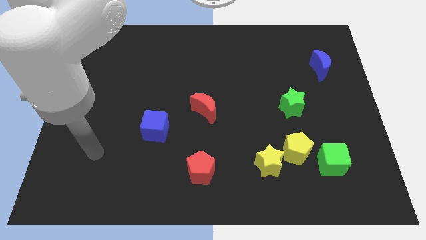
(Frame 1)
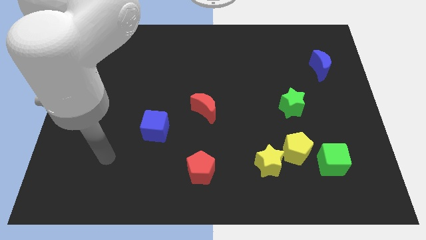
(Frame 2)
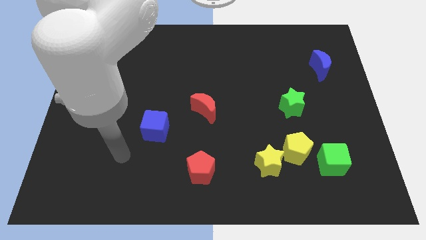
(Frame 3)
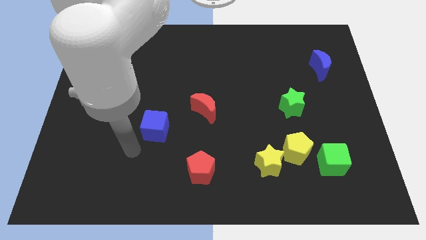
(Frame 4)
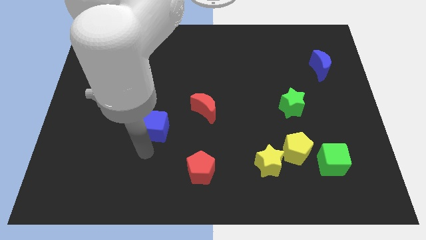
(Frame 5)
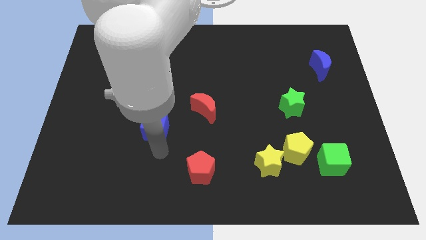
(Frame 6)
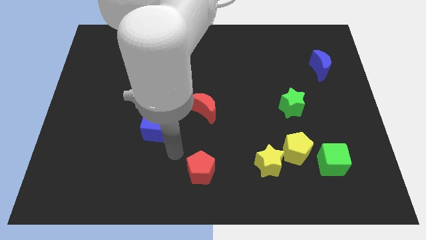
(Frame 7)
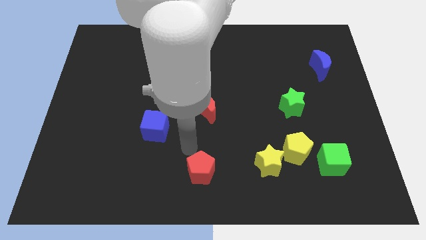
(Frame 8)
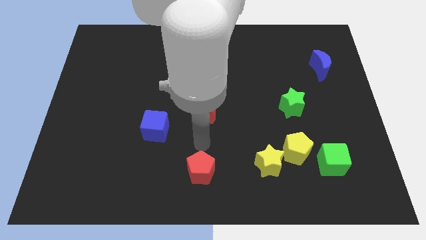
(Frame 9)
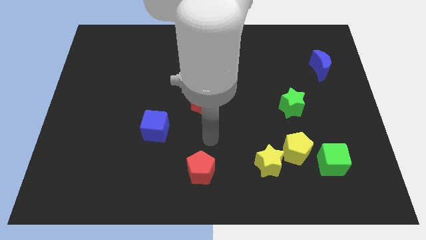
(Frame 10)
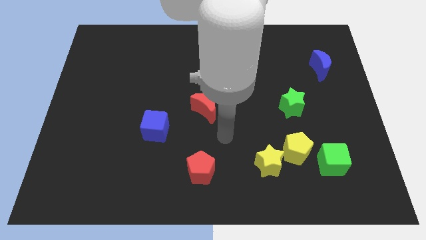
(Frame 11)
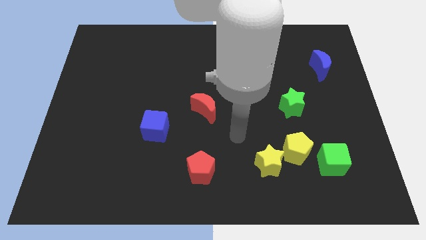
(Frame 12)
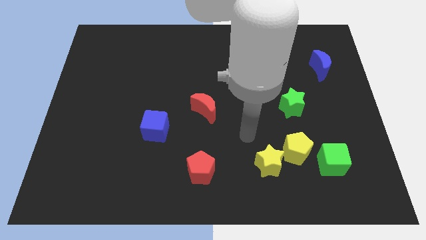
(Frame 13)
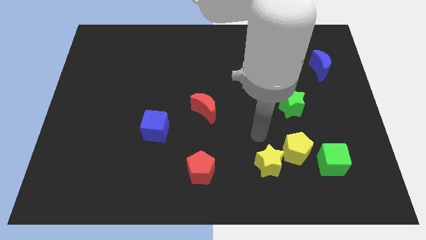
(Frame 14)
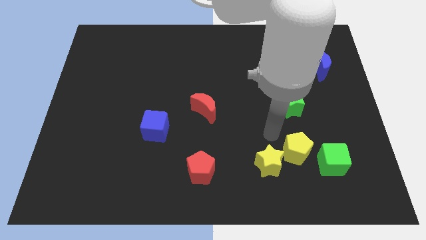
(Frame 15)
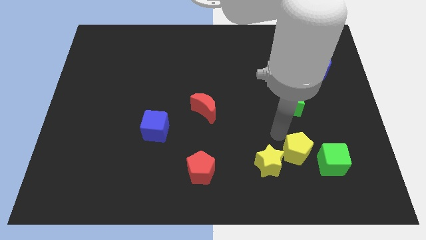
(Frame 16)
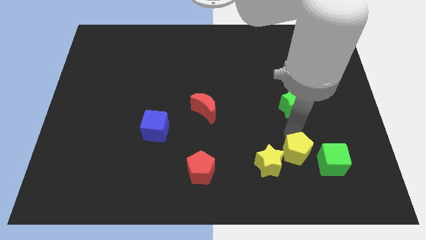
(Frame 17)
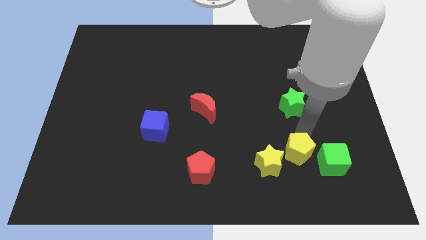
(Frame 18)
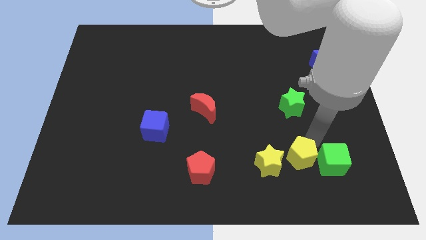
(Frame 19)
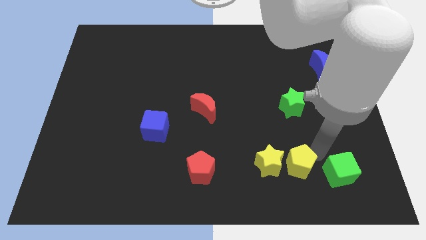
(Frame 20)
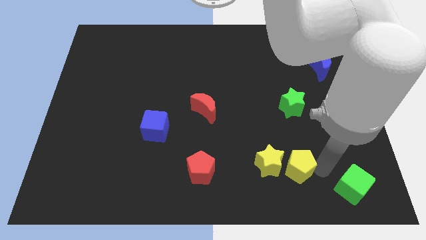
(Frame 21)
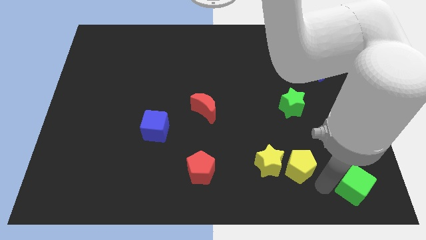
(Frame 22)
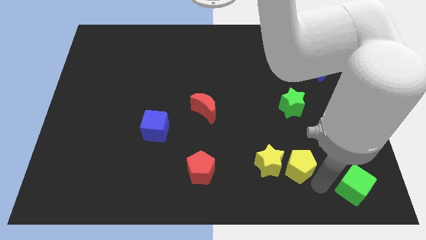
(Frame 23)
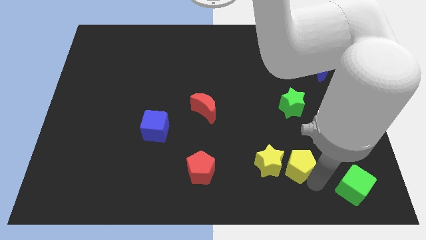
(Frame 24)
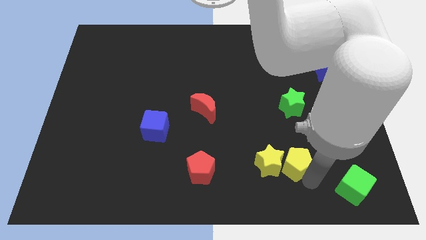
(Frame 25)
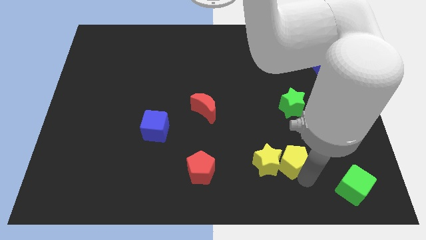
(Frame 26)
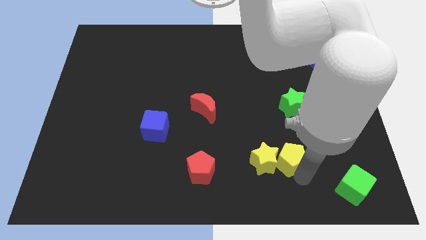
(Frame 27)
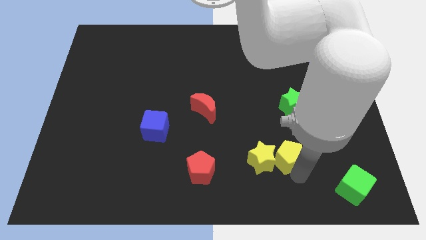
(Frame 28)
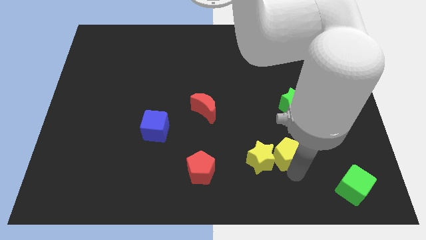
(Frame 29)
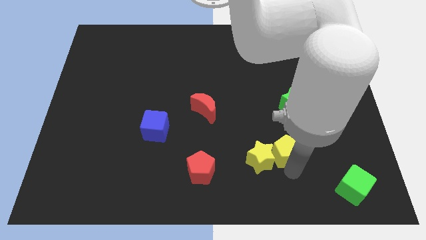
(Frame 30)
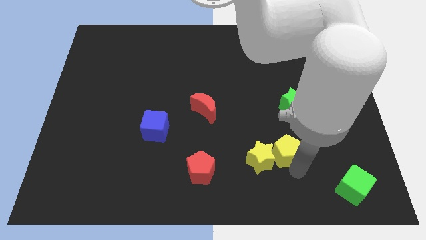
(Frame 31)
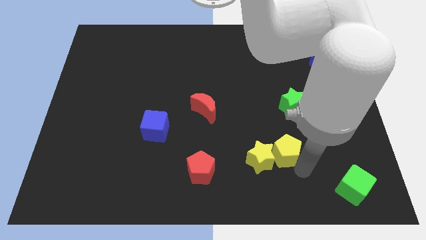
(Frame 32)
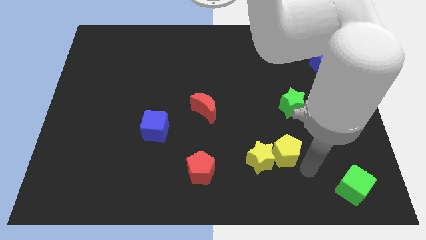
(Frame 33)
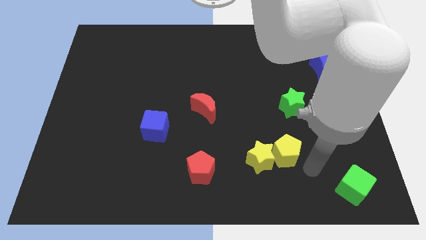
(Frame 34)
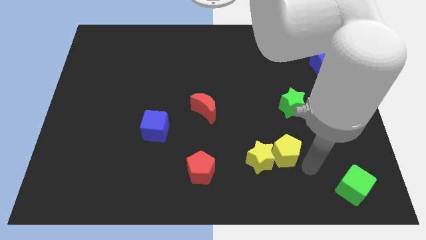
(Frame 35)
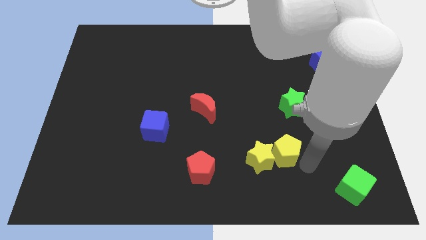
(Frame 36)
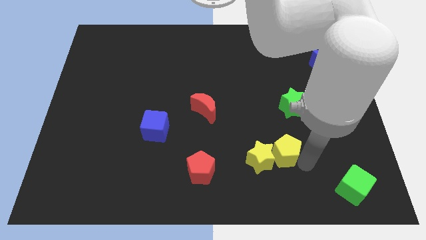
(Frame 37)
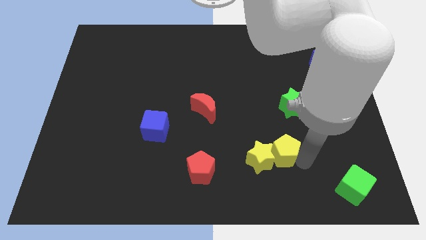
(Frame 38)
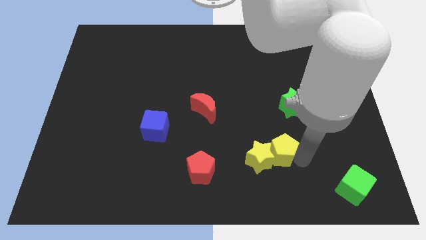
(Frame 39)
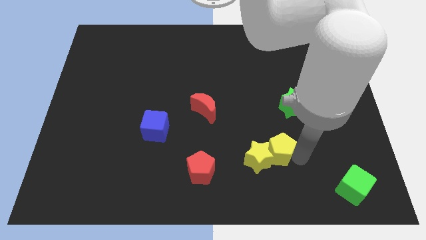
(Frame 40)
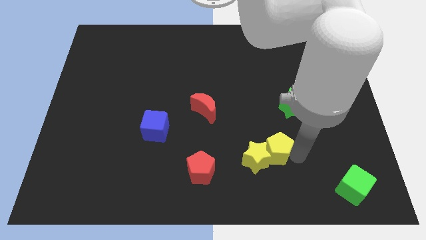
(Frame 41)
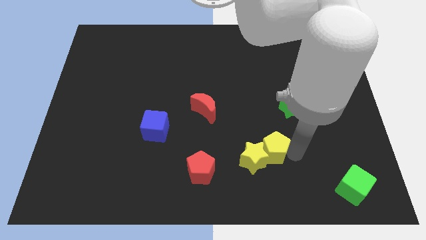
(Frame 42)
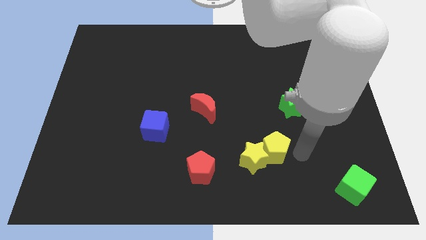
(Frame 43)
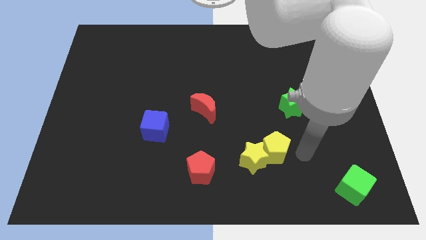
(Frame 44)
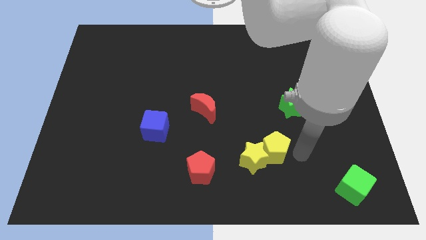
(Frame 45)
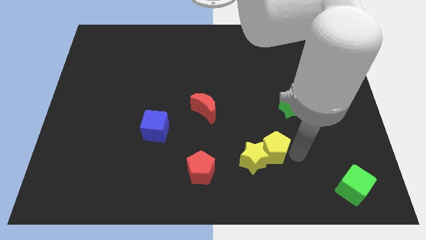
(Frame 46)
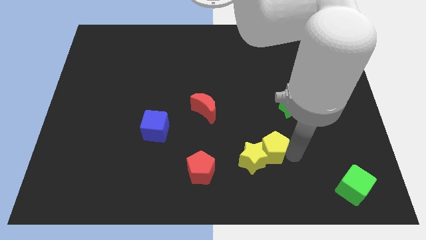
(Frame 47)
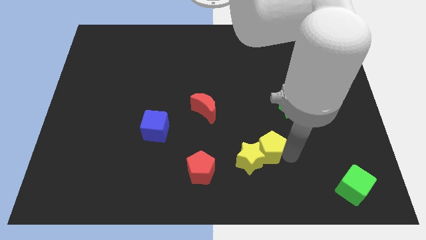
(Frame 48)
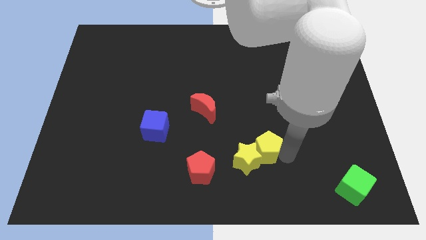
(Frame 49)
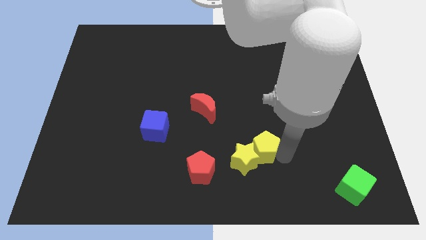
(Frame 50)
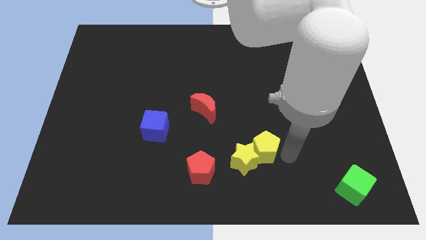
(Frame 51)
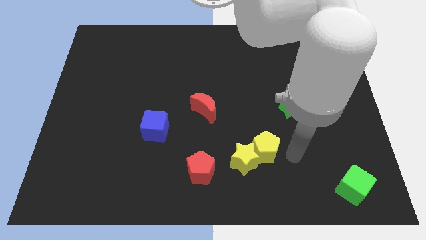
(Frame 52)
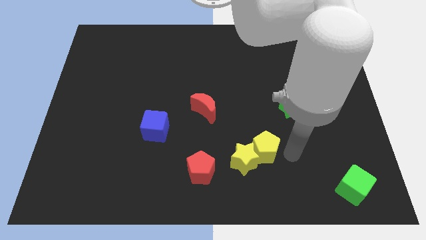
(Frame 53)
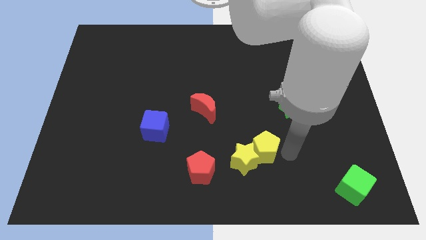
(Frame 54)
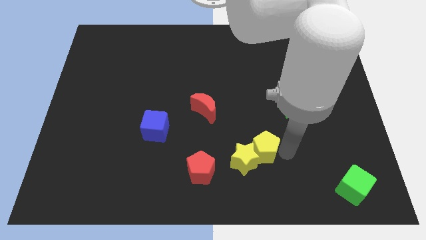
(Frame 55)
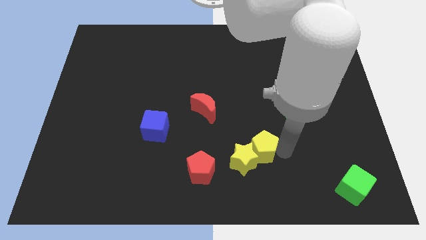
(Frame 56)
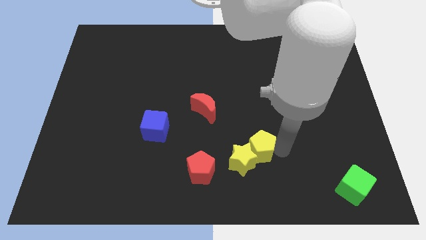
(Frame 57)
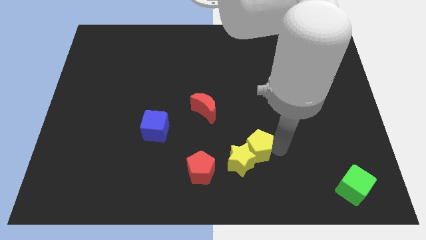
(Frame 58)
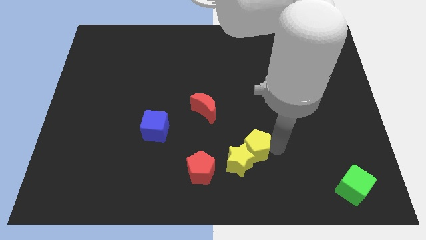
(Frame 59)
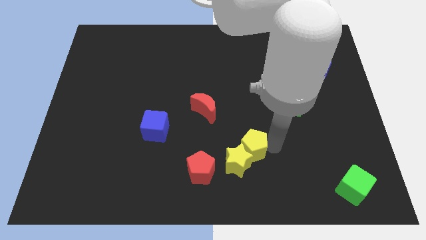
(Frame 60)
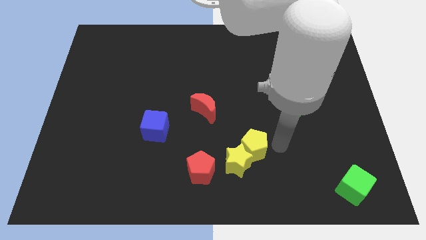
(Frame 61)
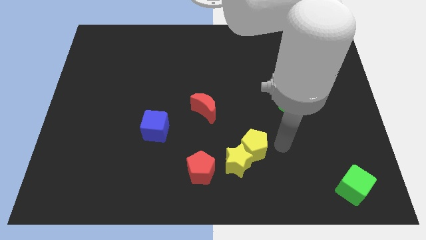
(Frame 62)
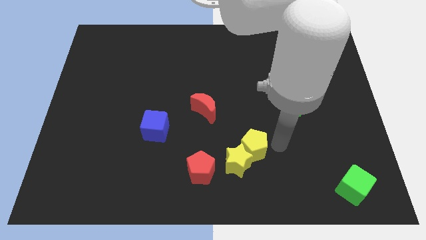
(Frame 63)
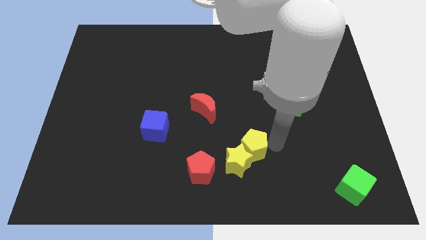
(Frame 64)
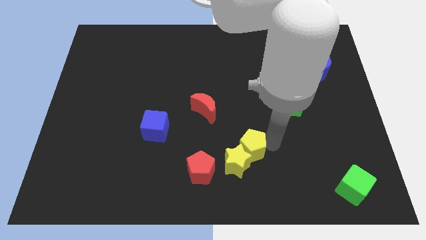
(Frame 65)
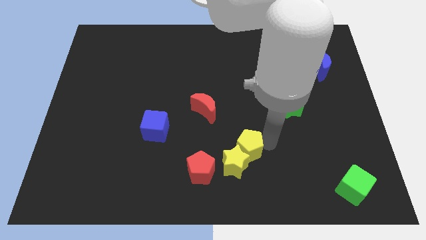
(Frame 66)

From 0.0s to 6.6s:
push the yellow pentagon to the top right side of the red pentagon

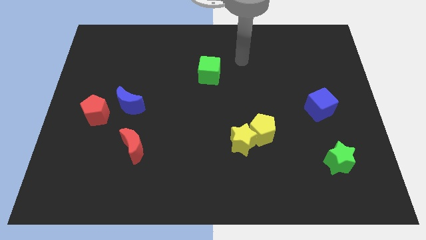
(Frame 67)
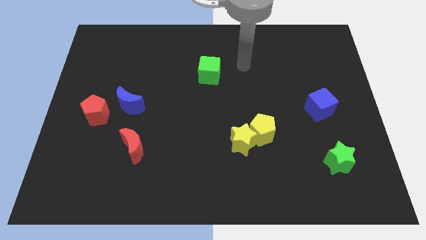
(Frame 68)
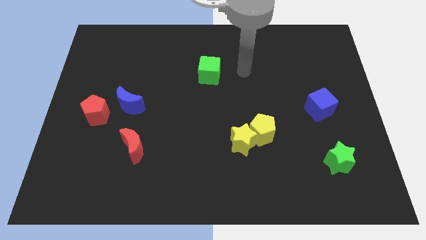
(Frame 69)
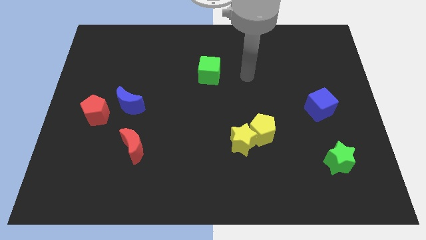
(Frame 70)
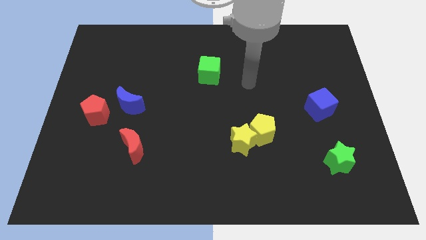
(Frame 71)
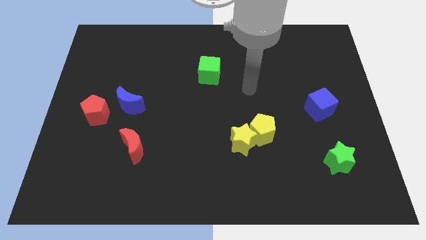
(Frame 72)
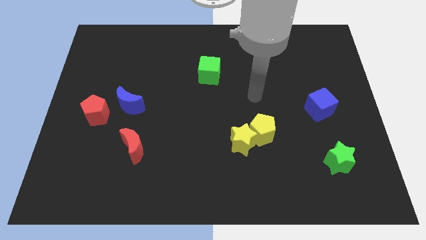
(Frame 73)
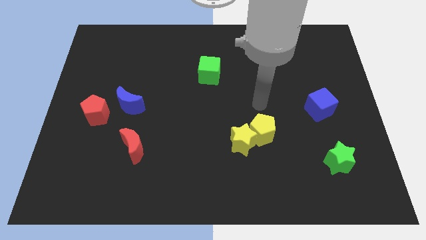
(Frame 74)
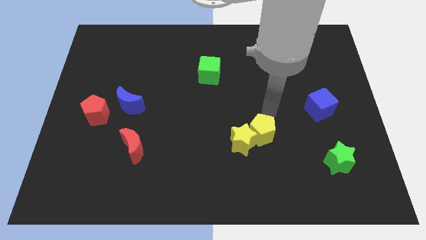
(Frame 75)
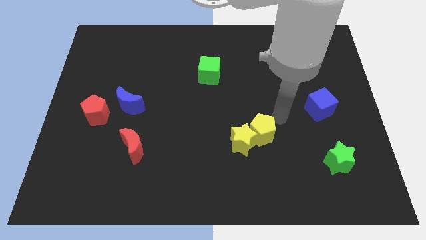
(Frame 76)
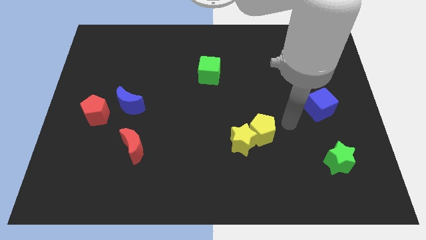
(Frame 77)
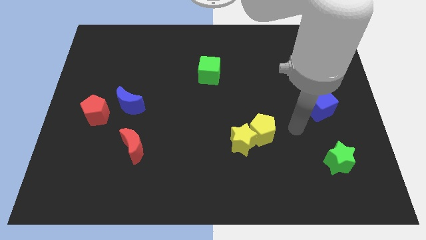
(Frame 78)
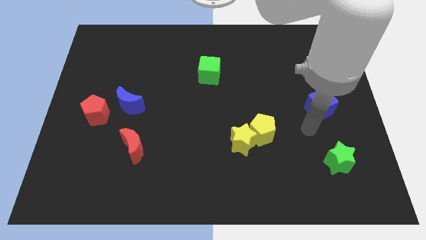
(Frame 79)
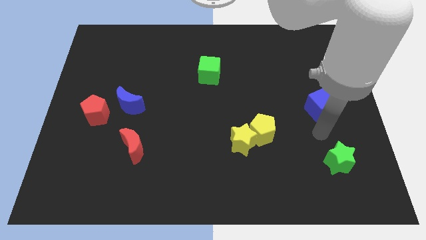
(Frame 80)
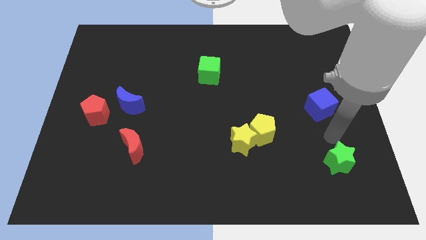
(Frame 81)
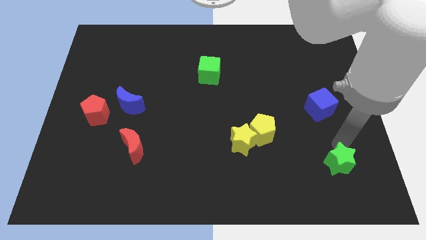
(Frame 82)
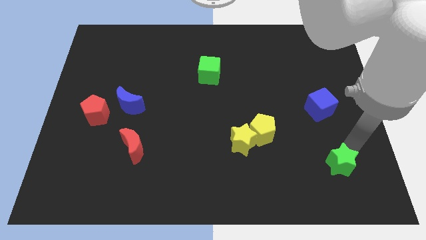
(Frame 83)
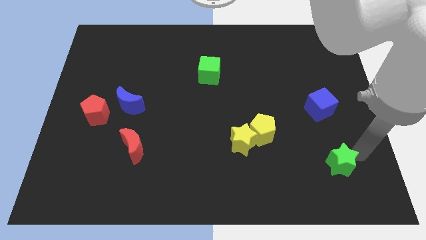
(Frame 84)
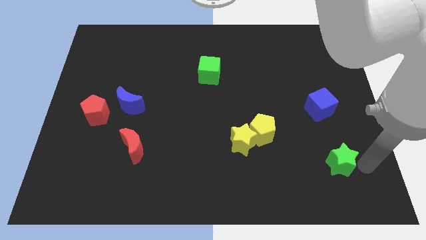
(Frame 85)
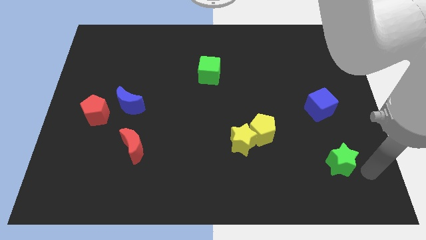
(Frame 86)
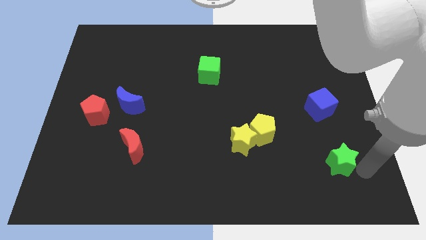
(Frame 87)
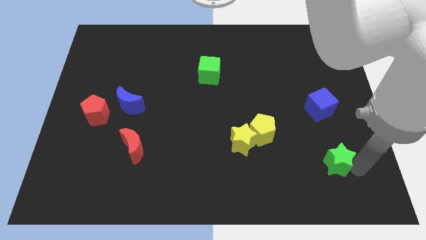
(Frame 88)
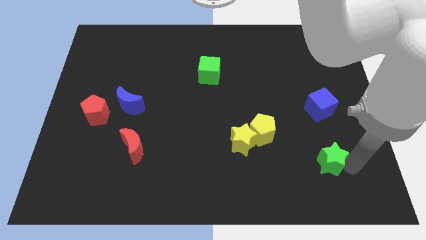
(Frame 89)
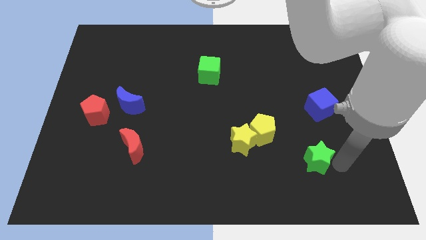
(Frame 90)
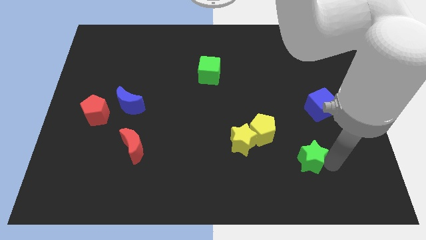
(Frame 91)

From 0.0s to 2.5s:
slide the green star just right of the yellow star
